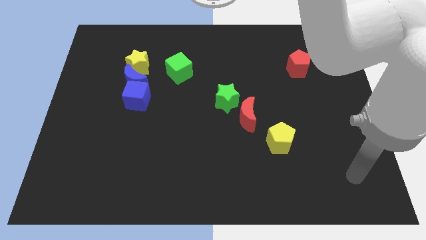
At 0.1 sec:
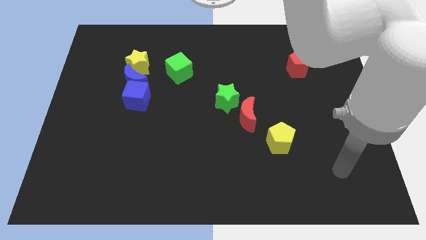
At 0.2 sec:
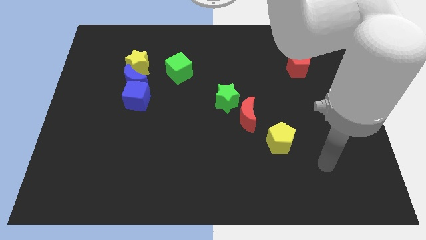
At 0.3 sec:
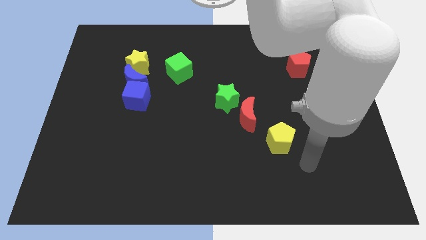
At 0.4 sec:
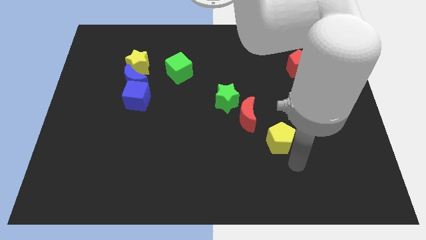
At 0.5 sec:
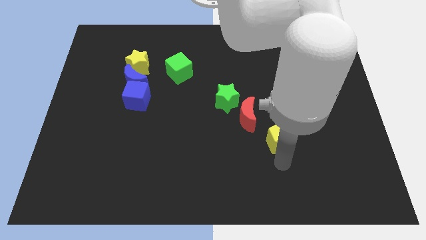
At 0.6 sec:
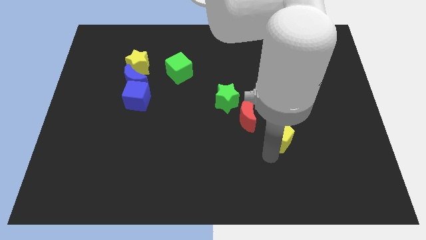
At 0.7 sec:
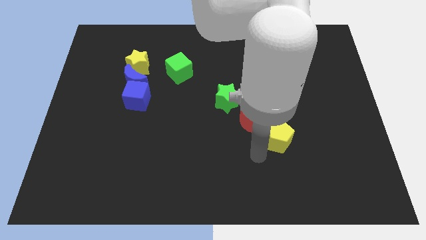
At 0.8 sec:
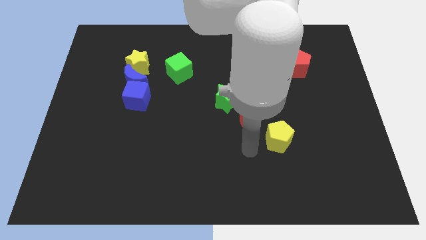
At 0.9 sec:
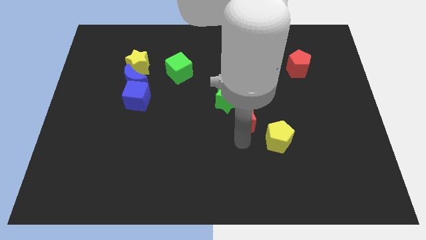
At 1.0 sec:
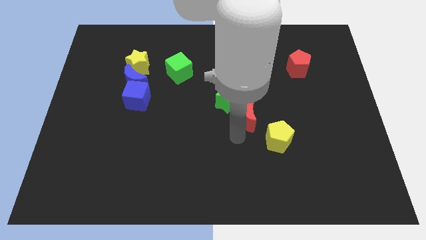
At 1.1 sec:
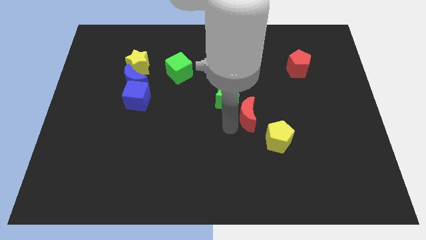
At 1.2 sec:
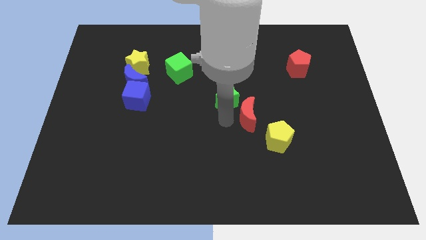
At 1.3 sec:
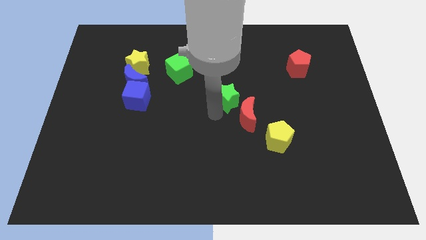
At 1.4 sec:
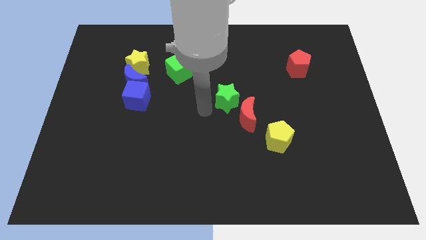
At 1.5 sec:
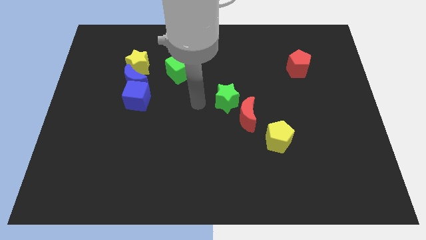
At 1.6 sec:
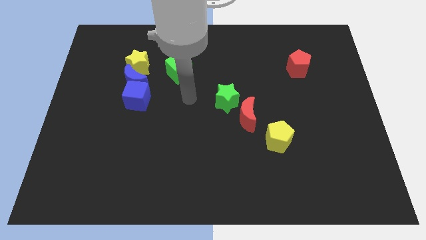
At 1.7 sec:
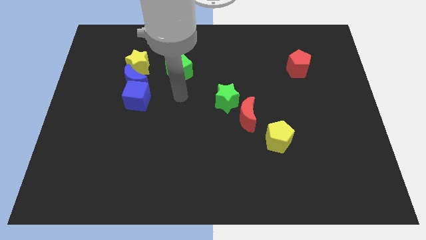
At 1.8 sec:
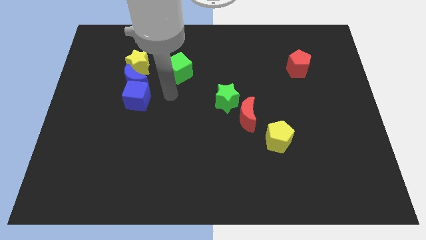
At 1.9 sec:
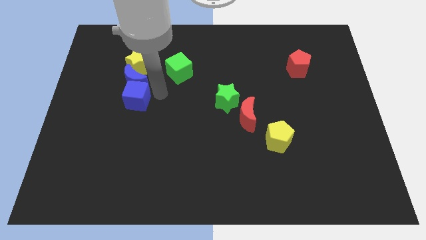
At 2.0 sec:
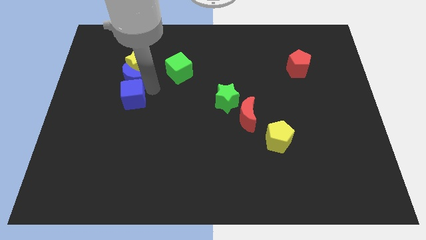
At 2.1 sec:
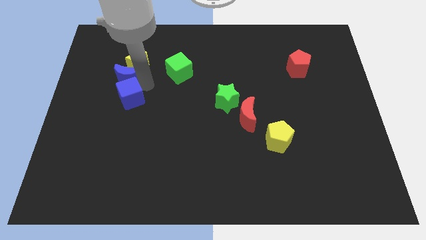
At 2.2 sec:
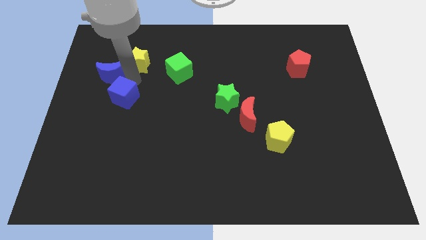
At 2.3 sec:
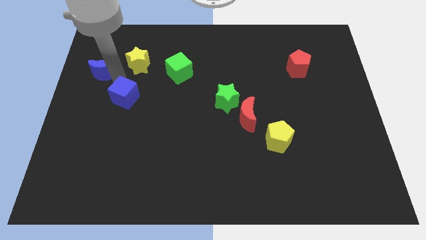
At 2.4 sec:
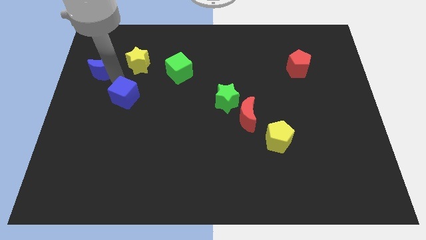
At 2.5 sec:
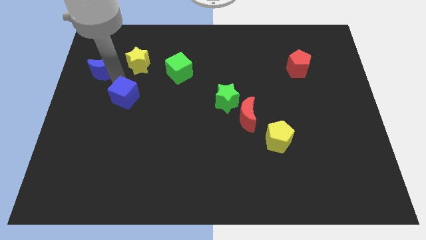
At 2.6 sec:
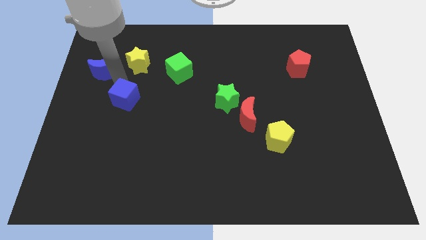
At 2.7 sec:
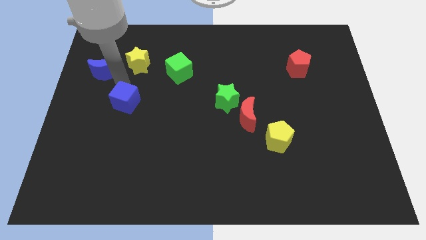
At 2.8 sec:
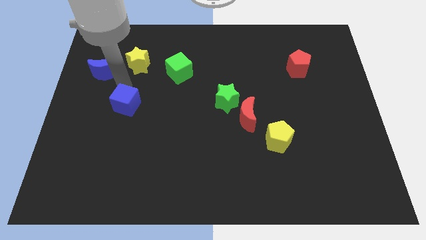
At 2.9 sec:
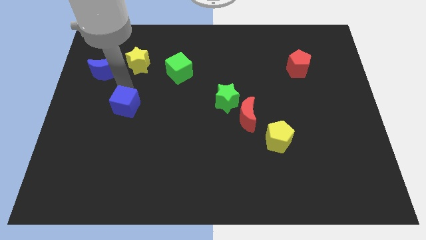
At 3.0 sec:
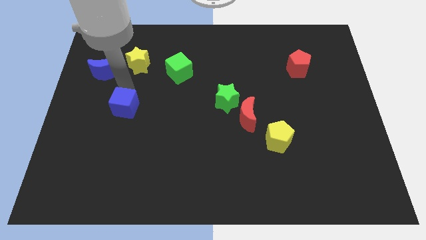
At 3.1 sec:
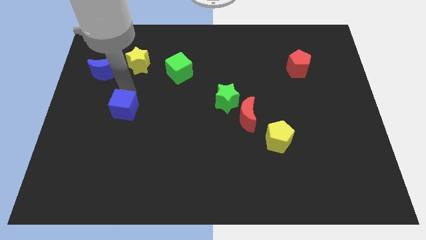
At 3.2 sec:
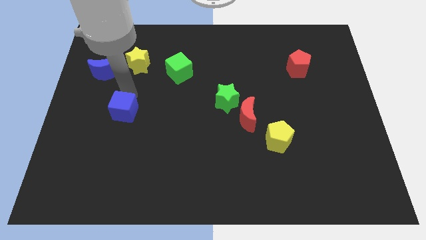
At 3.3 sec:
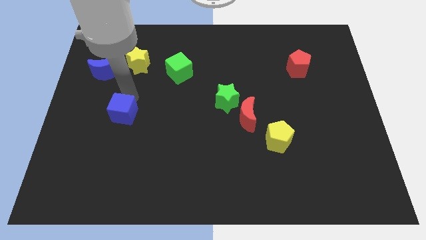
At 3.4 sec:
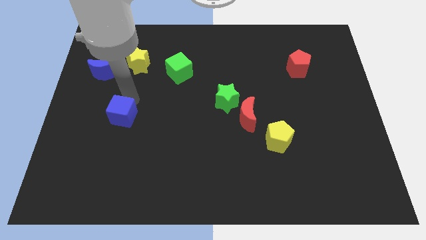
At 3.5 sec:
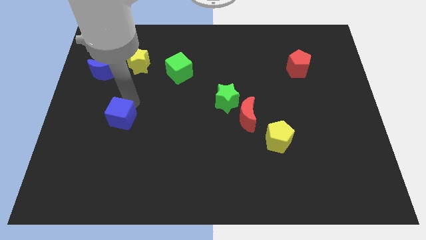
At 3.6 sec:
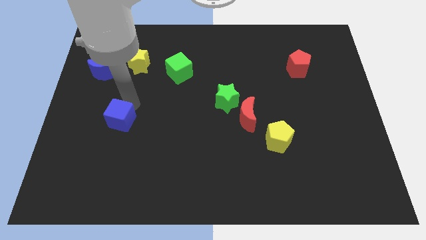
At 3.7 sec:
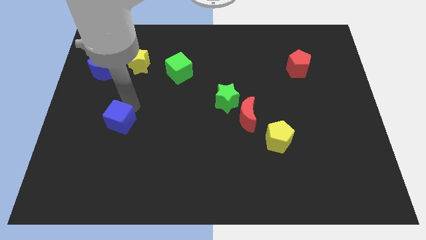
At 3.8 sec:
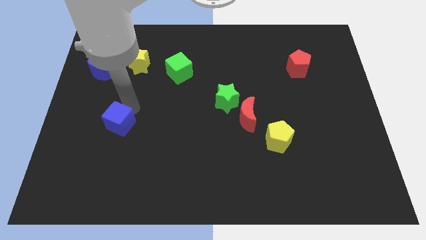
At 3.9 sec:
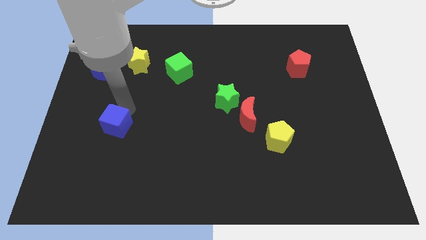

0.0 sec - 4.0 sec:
slightly move the blue cube downwards

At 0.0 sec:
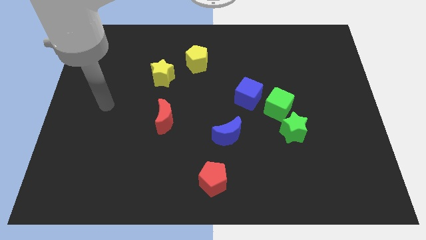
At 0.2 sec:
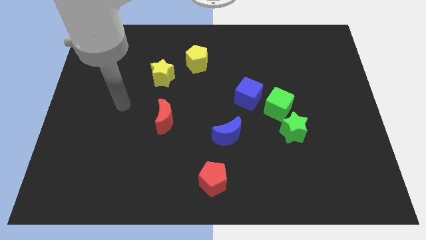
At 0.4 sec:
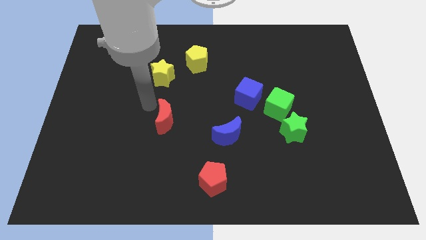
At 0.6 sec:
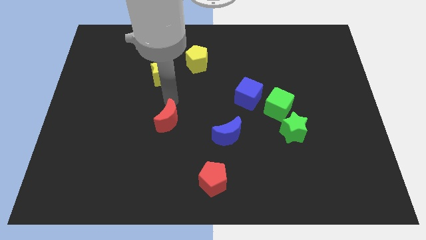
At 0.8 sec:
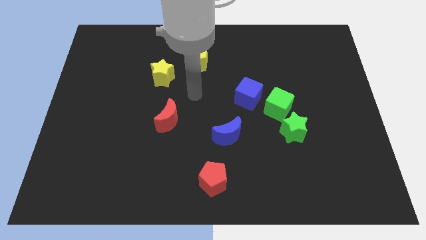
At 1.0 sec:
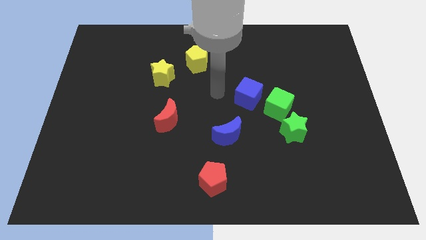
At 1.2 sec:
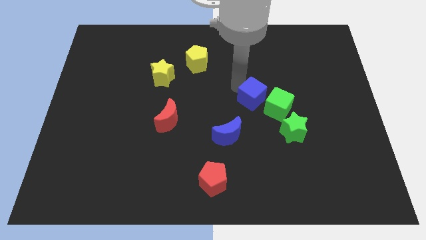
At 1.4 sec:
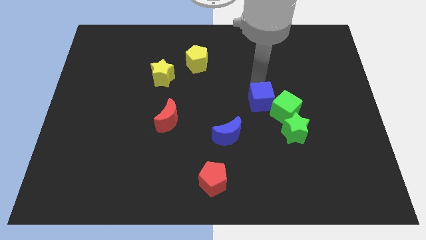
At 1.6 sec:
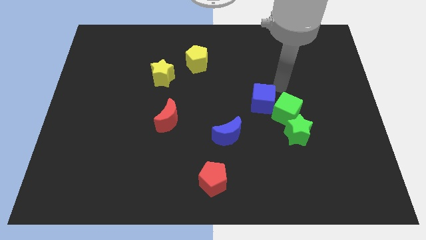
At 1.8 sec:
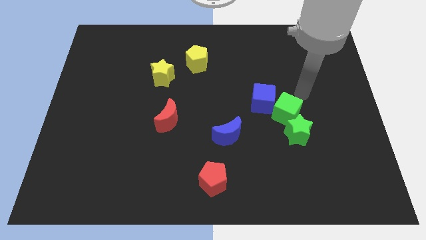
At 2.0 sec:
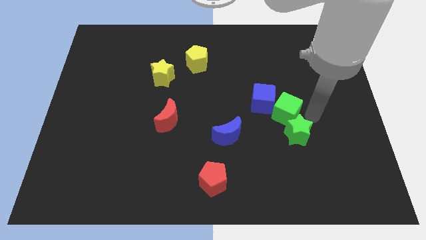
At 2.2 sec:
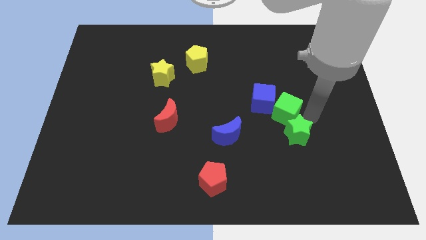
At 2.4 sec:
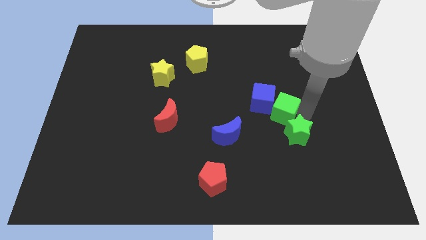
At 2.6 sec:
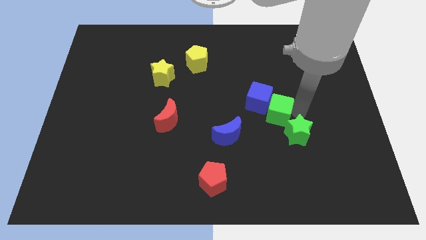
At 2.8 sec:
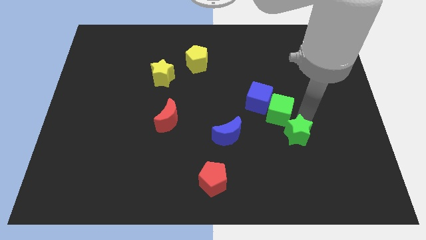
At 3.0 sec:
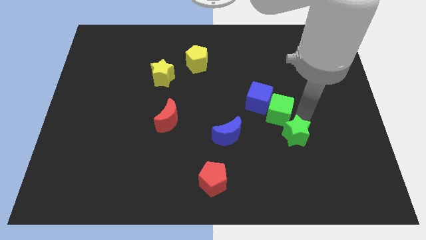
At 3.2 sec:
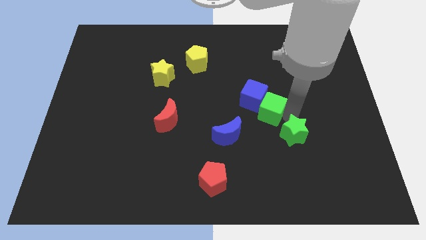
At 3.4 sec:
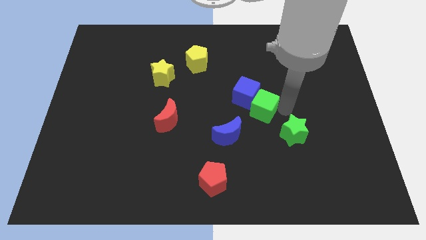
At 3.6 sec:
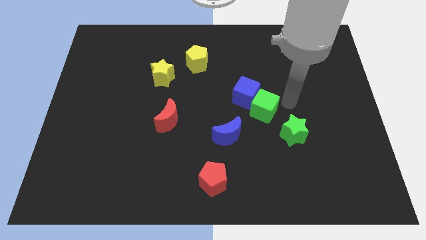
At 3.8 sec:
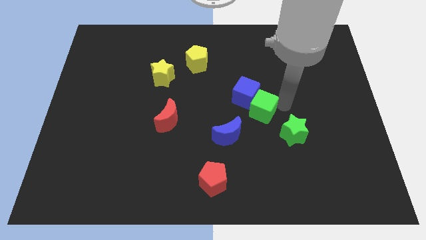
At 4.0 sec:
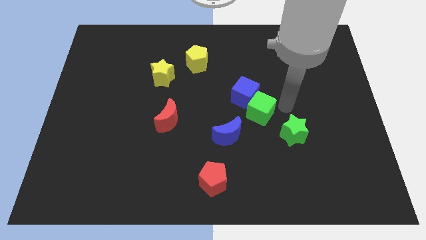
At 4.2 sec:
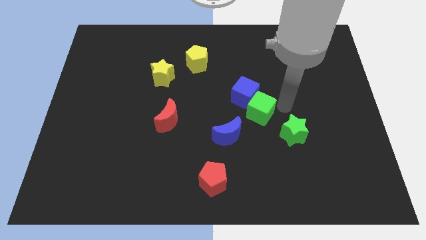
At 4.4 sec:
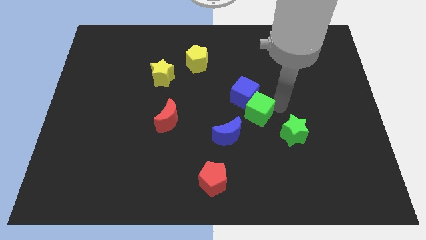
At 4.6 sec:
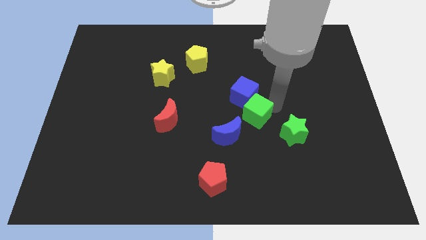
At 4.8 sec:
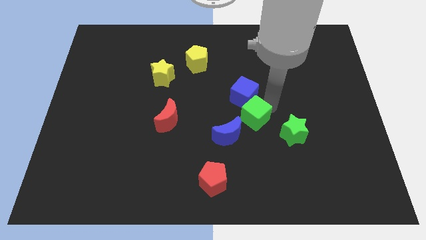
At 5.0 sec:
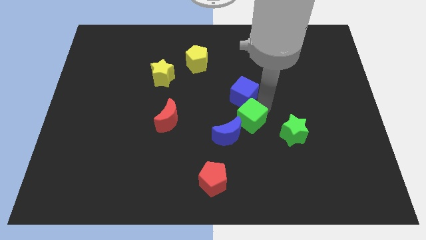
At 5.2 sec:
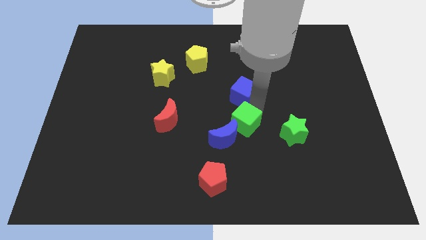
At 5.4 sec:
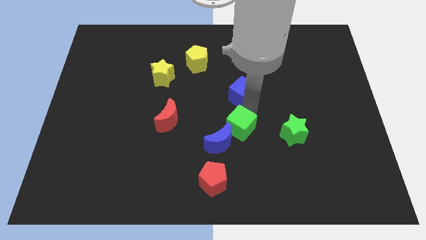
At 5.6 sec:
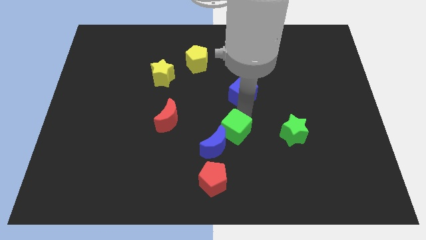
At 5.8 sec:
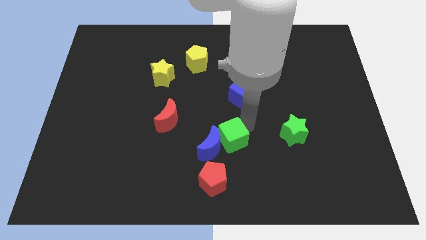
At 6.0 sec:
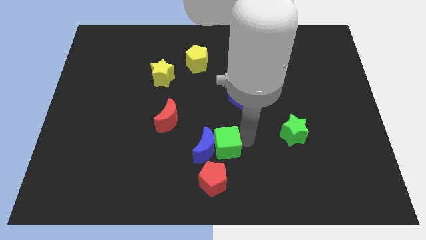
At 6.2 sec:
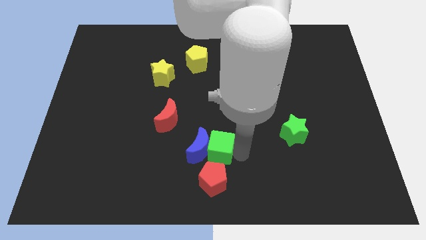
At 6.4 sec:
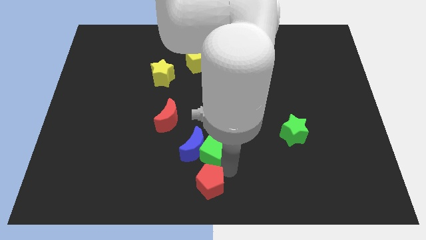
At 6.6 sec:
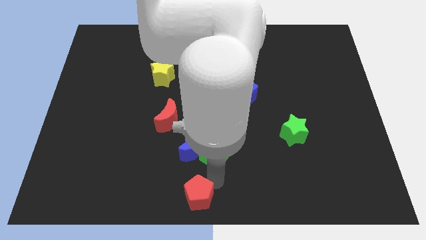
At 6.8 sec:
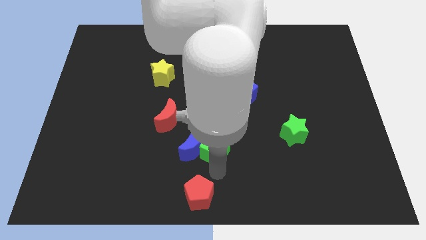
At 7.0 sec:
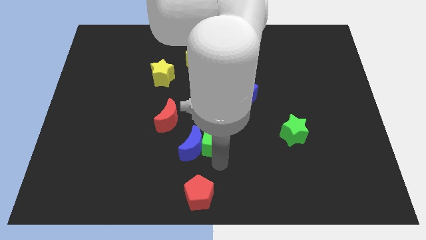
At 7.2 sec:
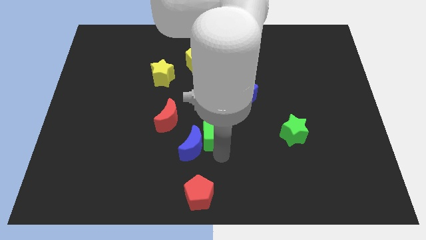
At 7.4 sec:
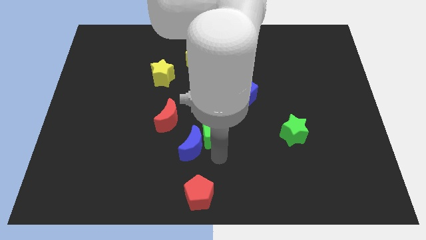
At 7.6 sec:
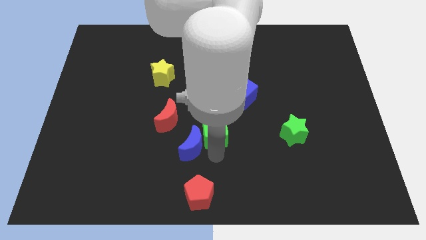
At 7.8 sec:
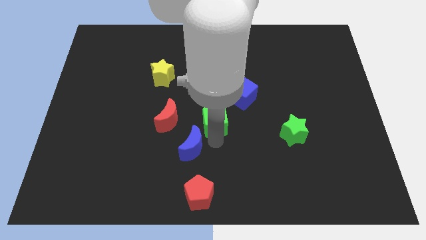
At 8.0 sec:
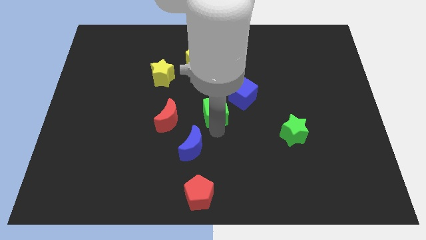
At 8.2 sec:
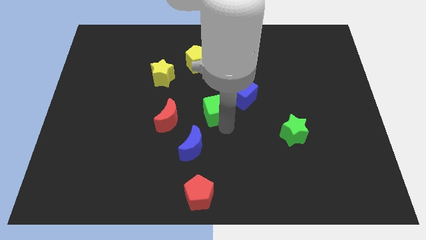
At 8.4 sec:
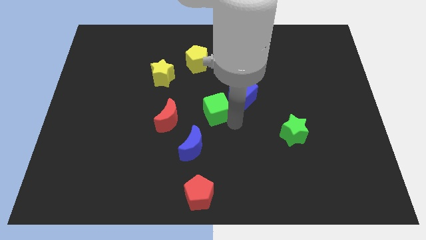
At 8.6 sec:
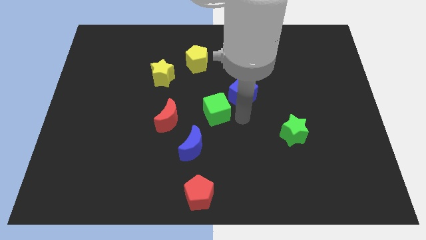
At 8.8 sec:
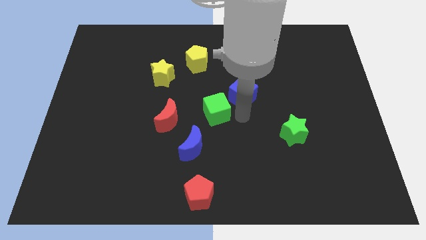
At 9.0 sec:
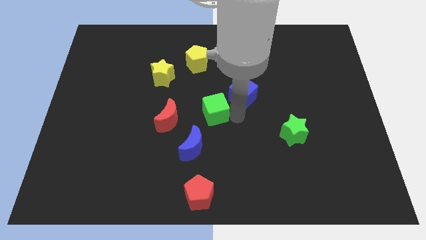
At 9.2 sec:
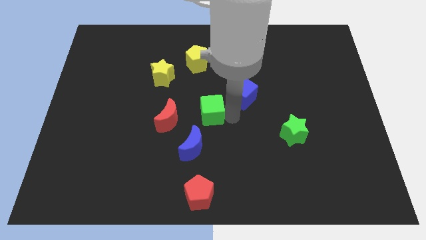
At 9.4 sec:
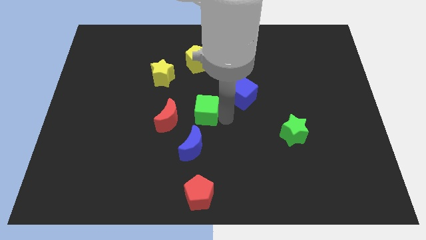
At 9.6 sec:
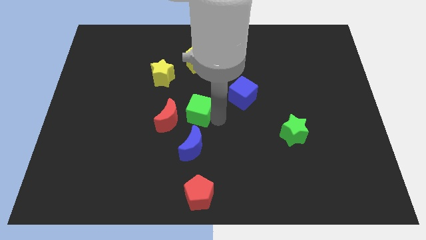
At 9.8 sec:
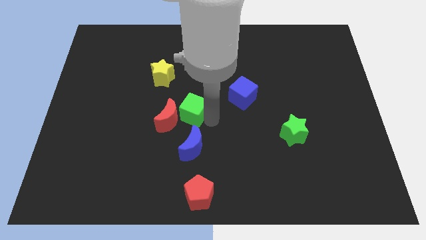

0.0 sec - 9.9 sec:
move the green cube left
